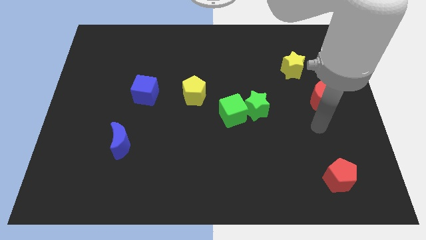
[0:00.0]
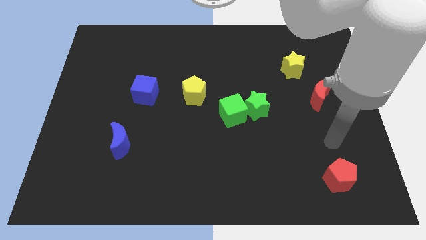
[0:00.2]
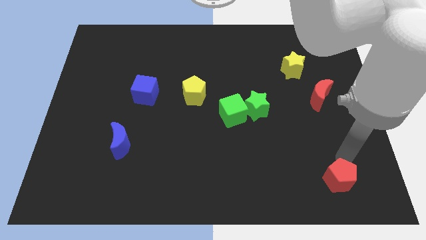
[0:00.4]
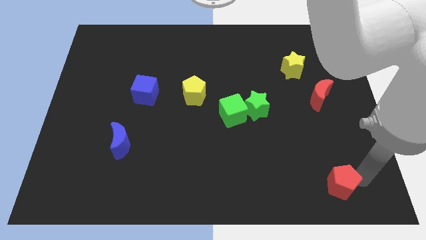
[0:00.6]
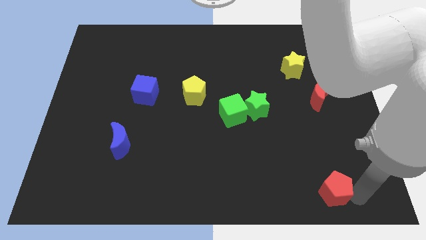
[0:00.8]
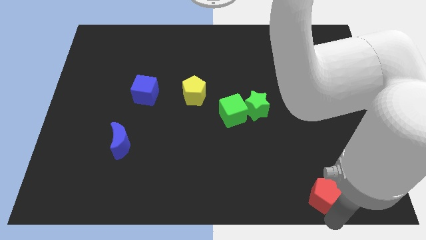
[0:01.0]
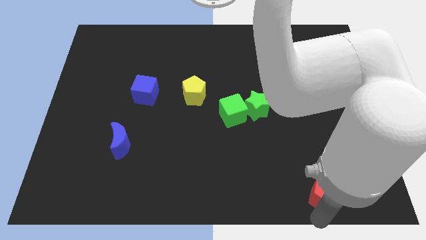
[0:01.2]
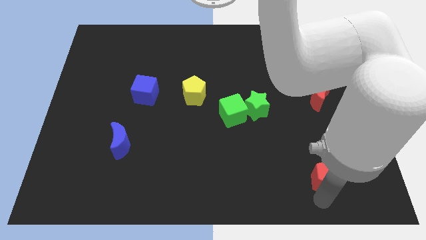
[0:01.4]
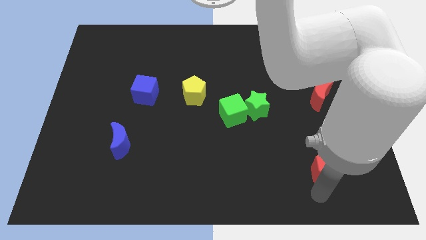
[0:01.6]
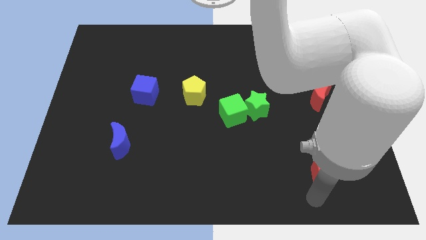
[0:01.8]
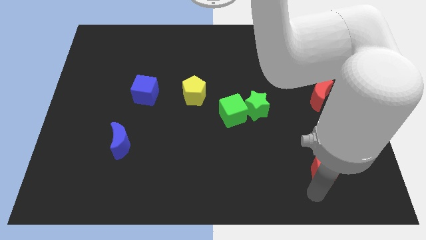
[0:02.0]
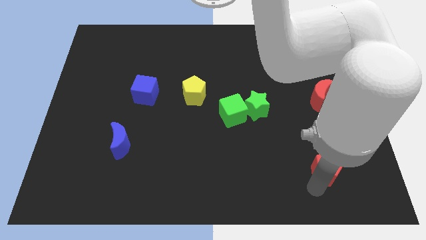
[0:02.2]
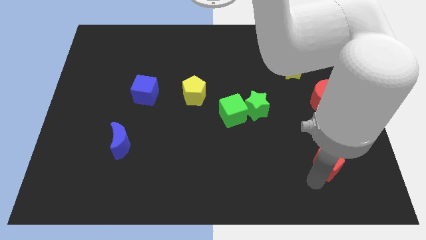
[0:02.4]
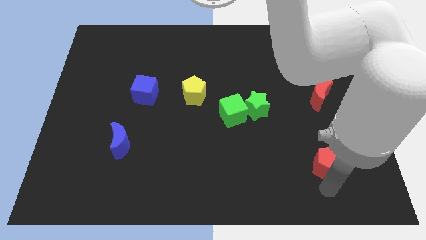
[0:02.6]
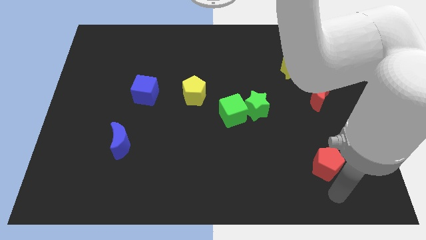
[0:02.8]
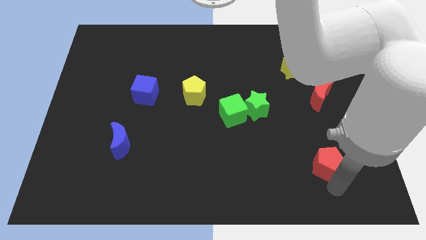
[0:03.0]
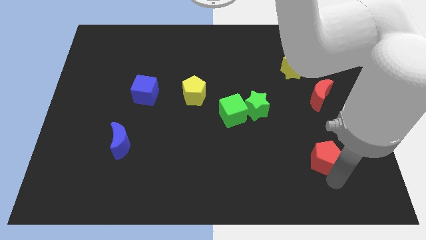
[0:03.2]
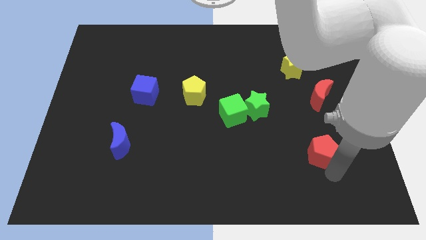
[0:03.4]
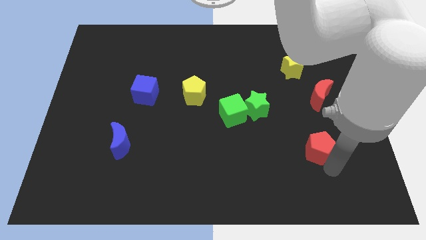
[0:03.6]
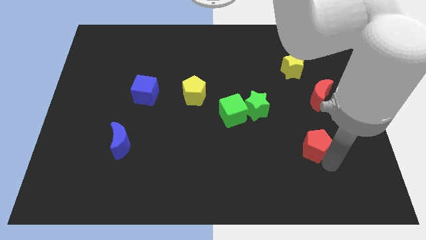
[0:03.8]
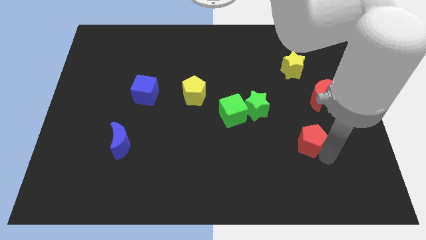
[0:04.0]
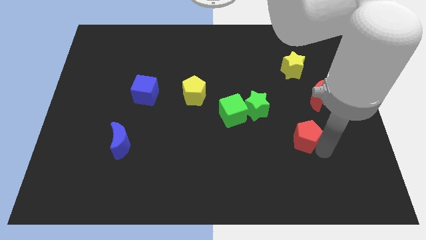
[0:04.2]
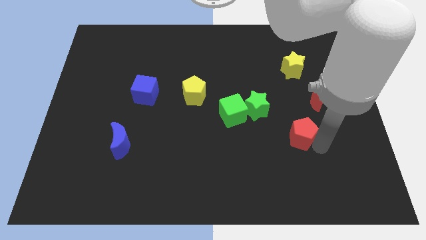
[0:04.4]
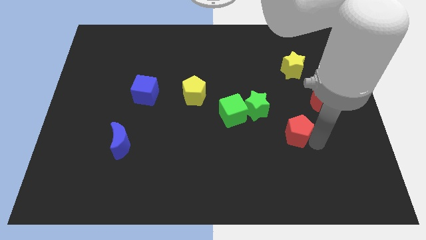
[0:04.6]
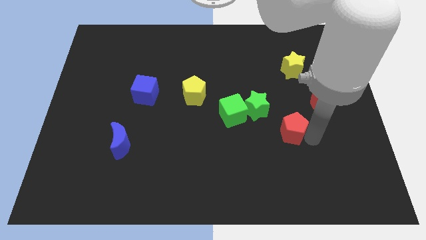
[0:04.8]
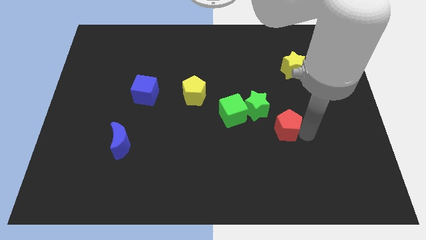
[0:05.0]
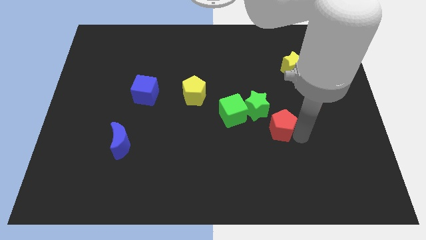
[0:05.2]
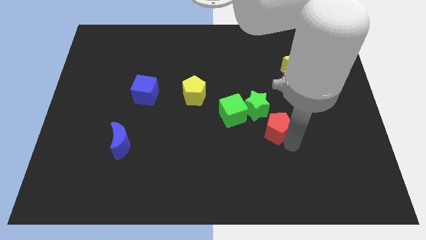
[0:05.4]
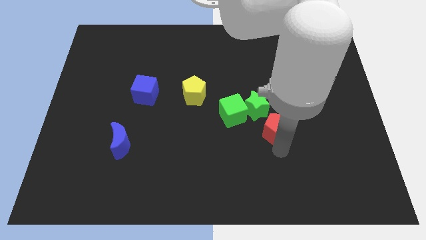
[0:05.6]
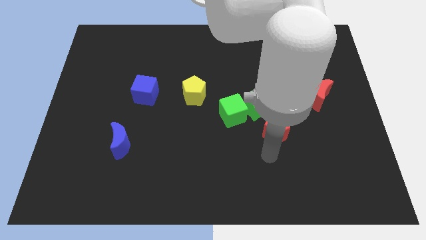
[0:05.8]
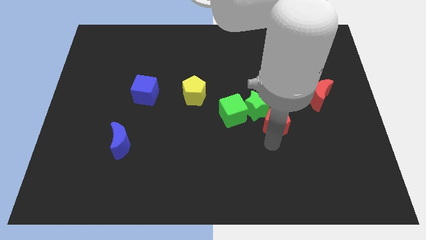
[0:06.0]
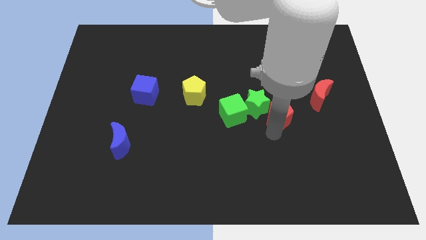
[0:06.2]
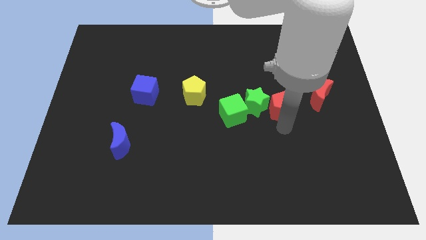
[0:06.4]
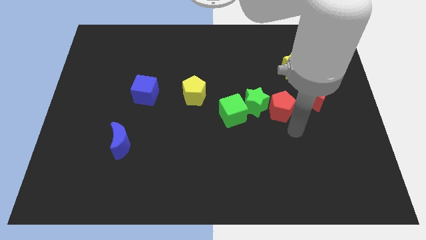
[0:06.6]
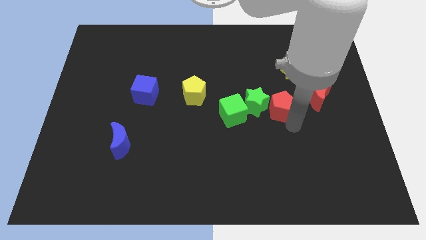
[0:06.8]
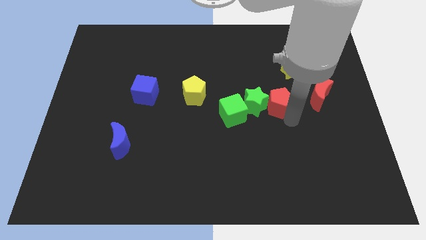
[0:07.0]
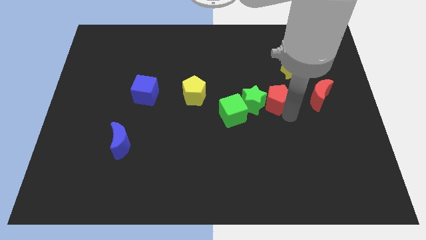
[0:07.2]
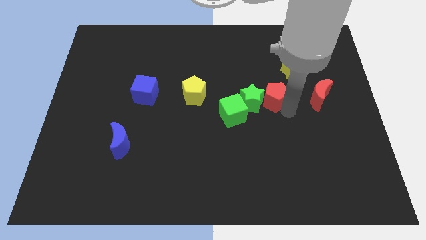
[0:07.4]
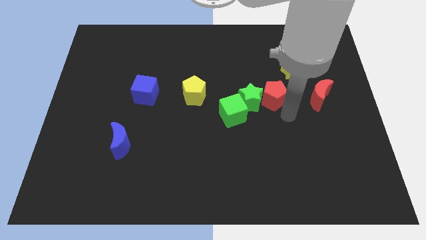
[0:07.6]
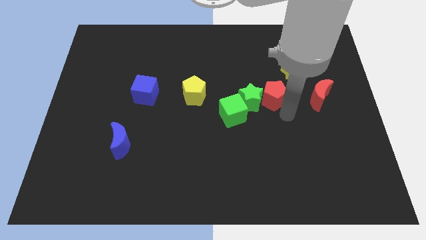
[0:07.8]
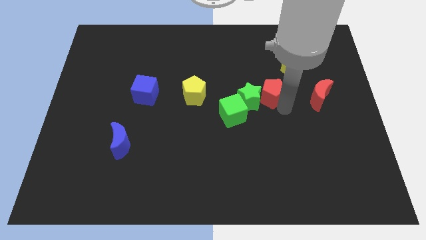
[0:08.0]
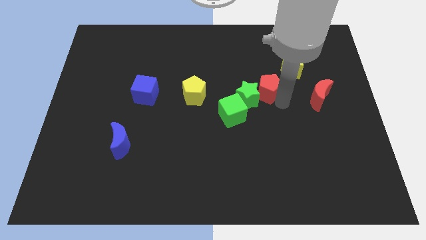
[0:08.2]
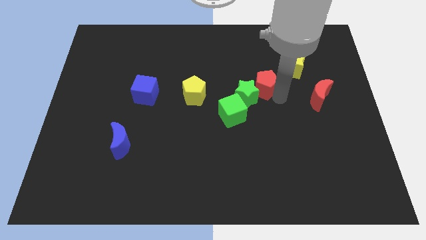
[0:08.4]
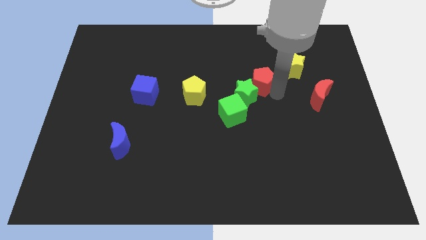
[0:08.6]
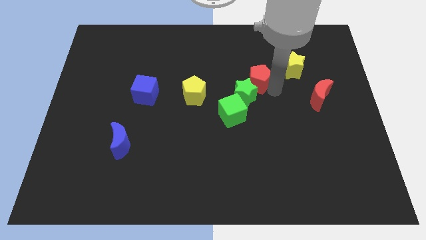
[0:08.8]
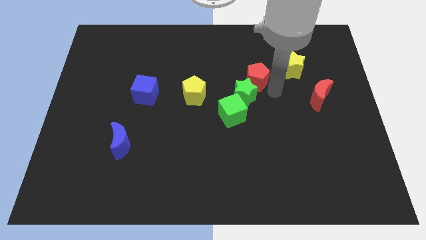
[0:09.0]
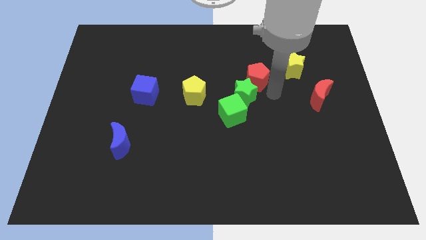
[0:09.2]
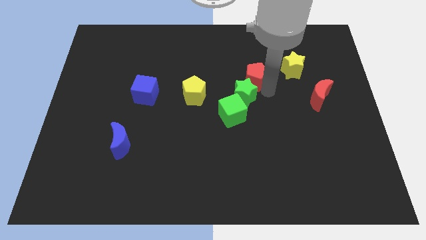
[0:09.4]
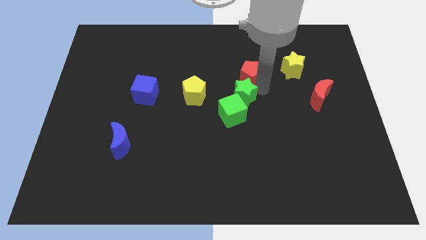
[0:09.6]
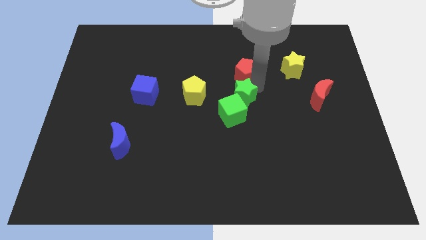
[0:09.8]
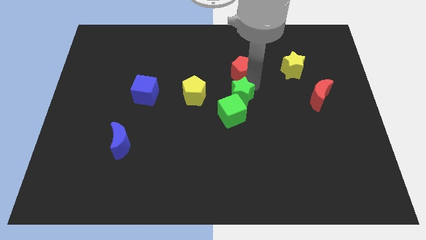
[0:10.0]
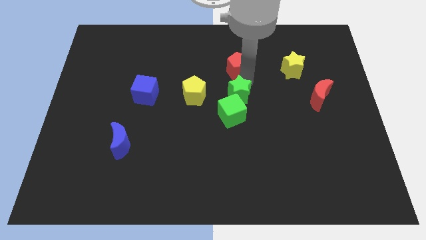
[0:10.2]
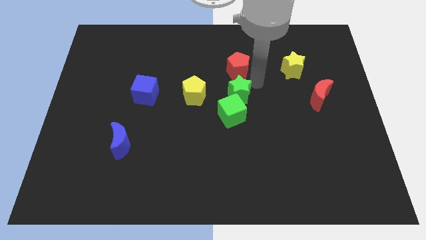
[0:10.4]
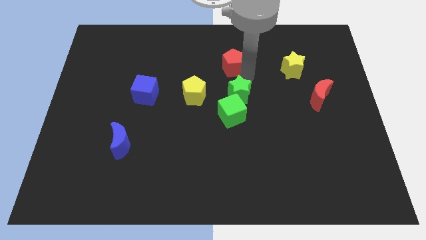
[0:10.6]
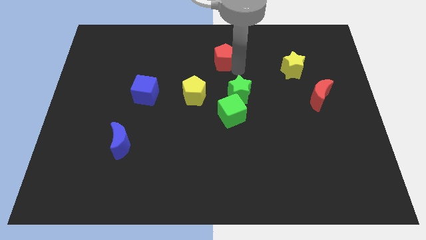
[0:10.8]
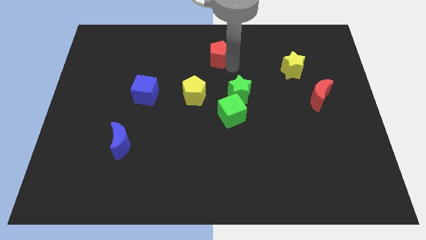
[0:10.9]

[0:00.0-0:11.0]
push the red pentagon to the towards your base
